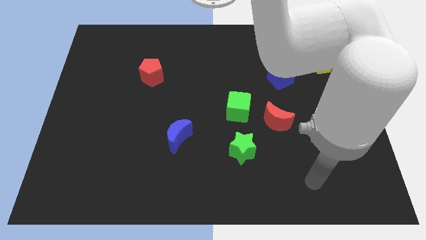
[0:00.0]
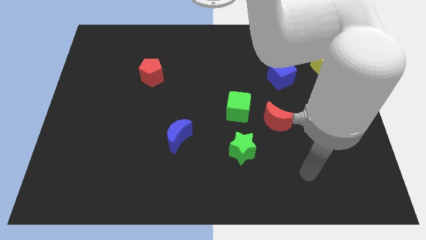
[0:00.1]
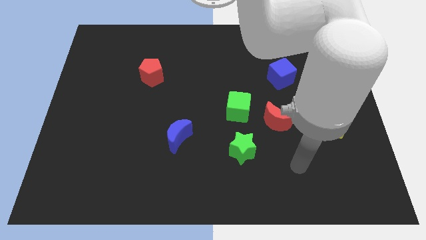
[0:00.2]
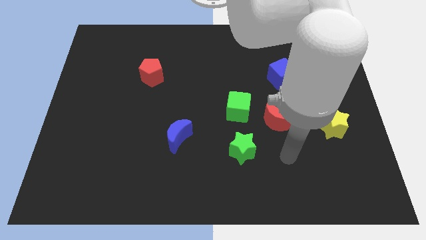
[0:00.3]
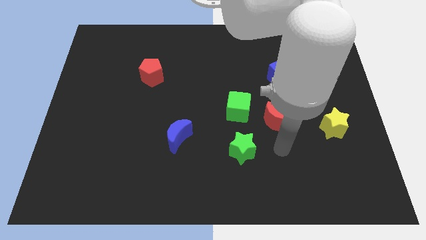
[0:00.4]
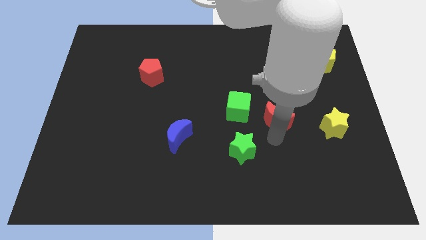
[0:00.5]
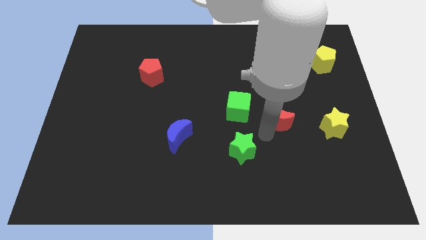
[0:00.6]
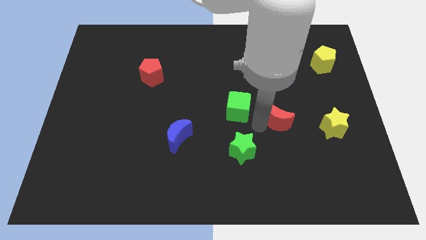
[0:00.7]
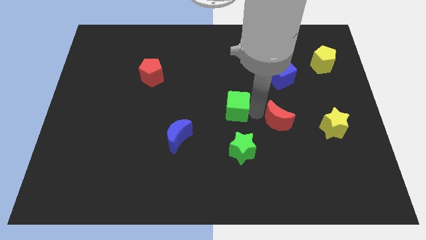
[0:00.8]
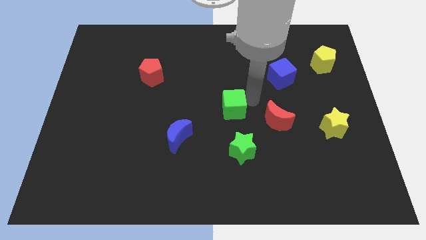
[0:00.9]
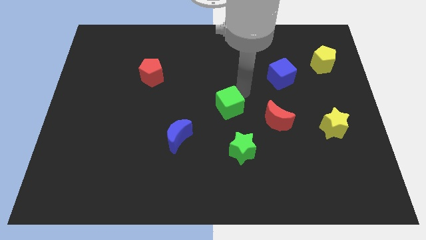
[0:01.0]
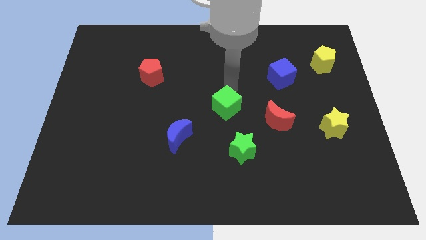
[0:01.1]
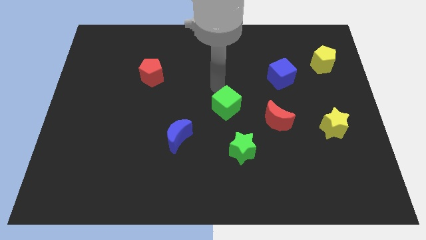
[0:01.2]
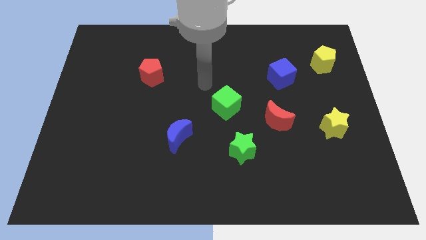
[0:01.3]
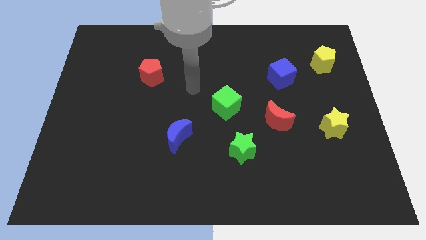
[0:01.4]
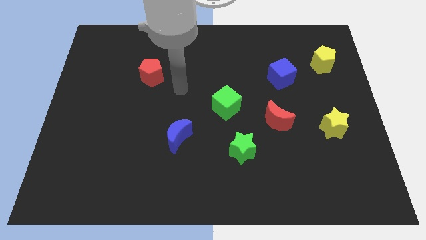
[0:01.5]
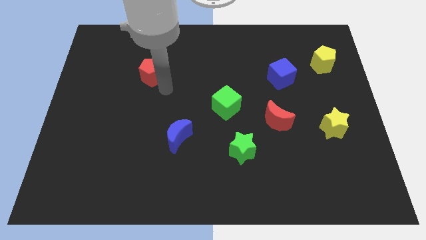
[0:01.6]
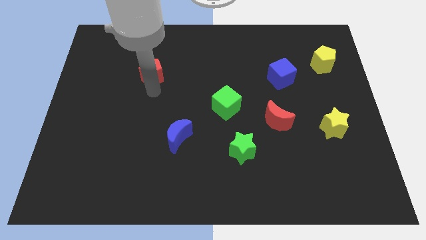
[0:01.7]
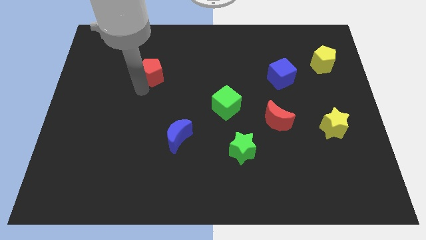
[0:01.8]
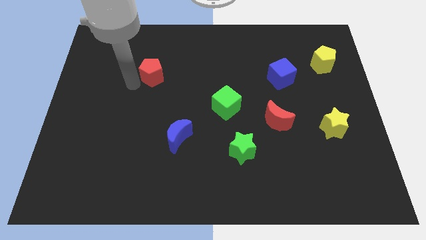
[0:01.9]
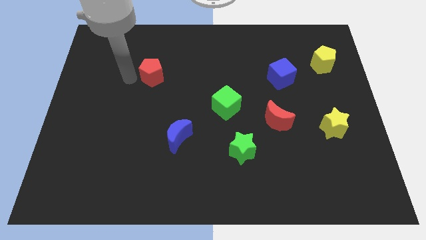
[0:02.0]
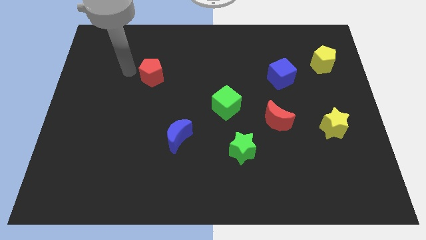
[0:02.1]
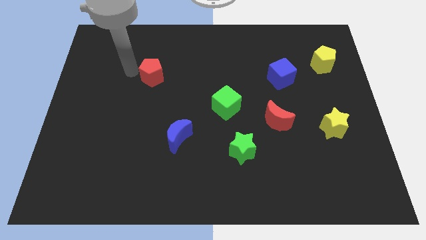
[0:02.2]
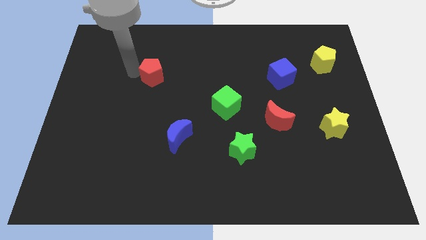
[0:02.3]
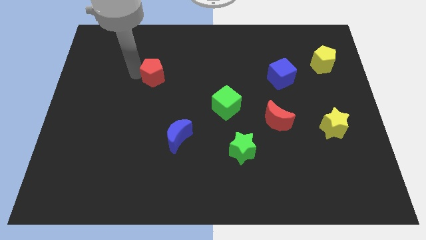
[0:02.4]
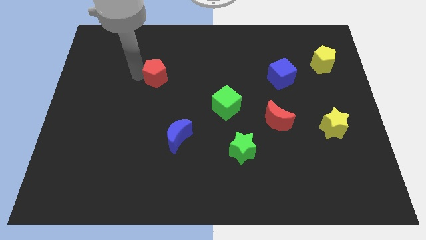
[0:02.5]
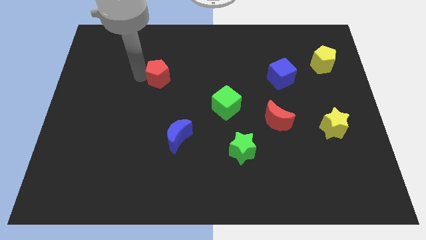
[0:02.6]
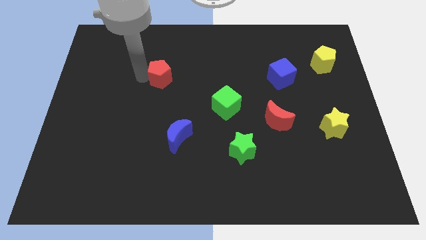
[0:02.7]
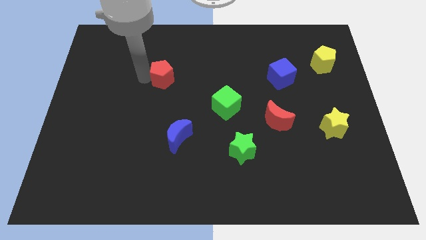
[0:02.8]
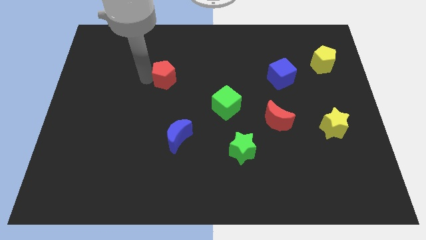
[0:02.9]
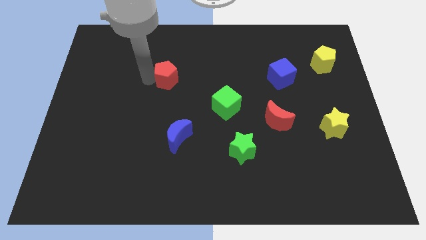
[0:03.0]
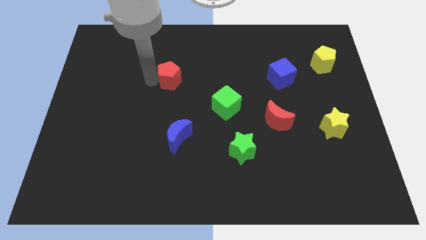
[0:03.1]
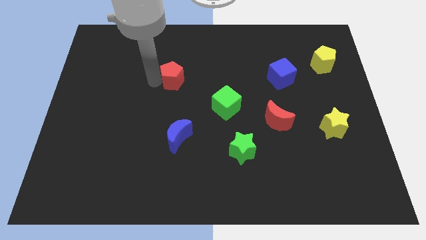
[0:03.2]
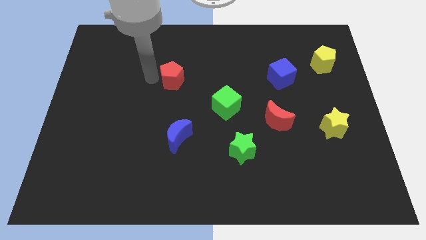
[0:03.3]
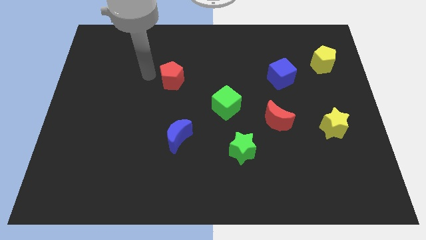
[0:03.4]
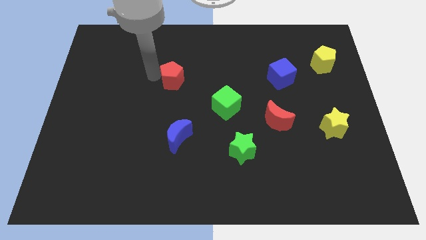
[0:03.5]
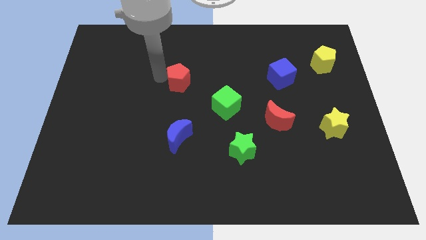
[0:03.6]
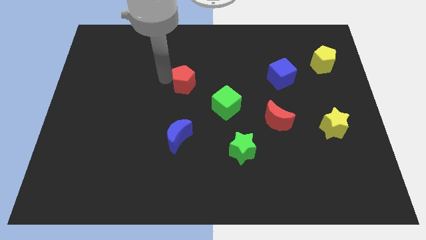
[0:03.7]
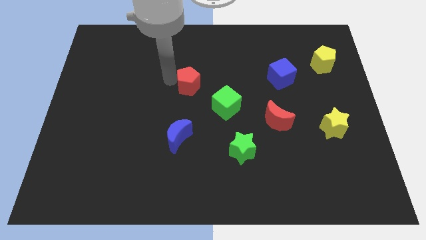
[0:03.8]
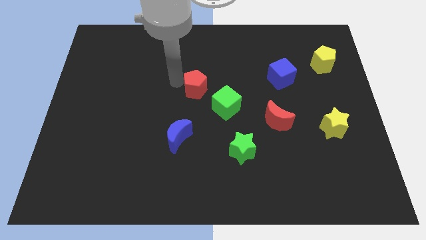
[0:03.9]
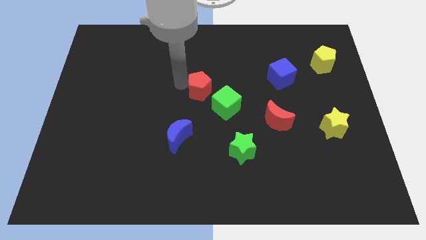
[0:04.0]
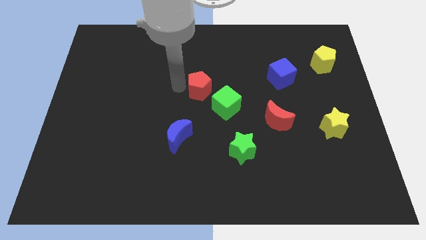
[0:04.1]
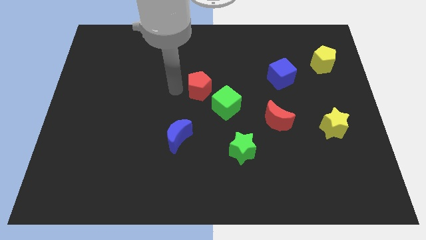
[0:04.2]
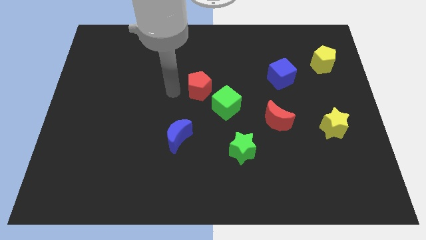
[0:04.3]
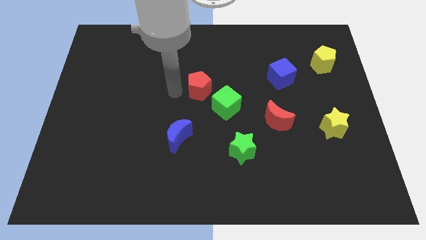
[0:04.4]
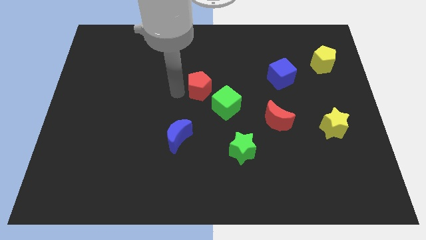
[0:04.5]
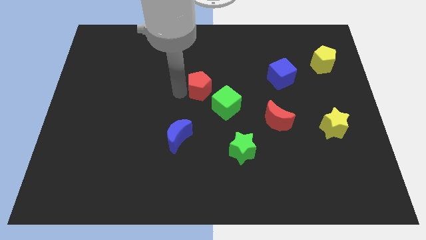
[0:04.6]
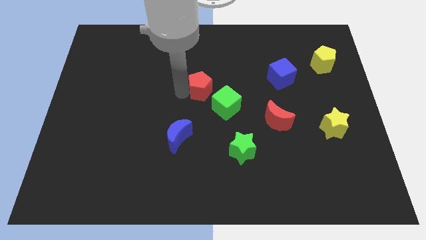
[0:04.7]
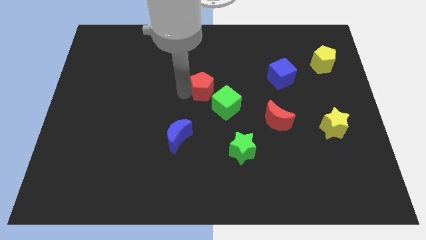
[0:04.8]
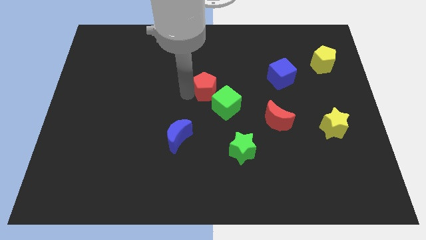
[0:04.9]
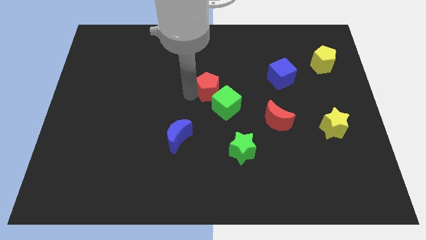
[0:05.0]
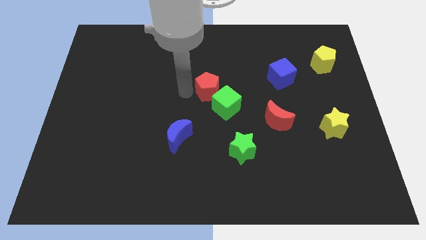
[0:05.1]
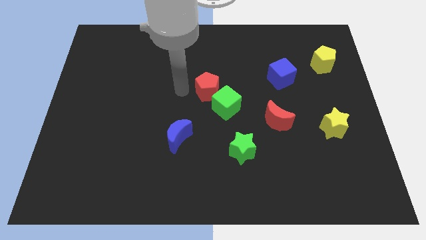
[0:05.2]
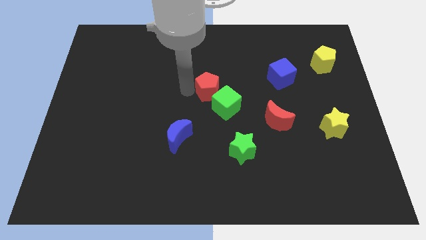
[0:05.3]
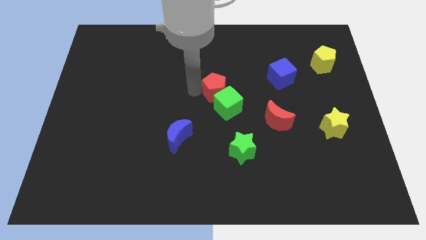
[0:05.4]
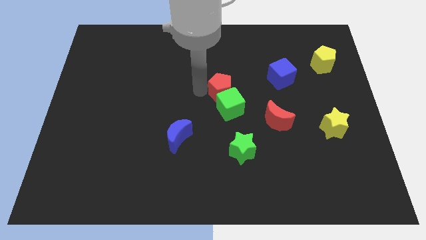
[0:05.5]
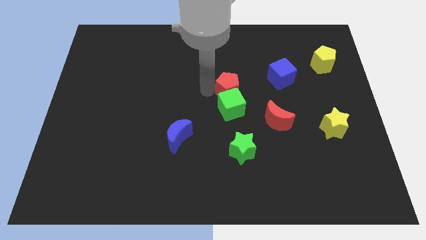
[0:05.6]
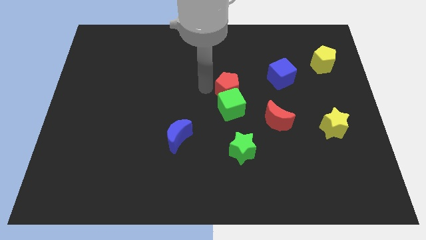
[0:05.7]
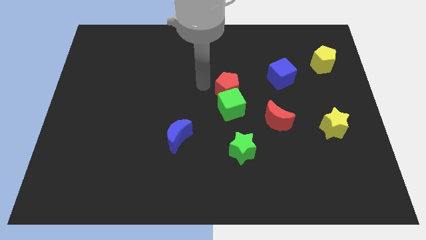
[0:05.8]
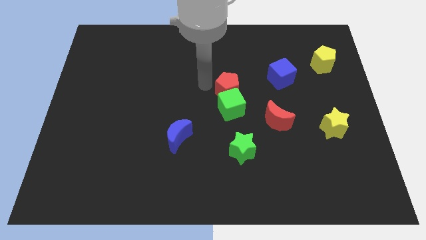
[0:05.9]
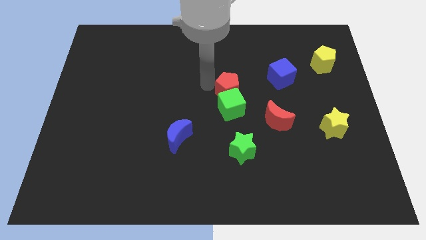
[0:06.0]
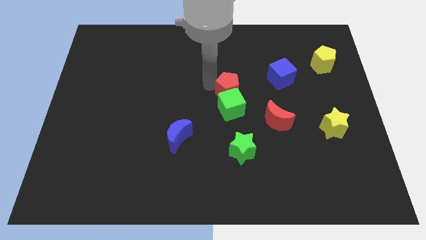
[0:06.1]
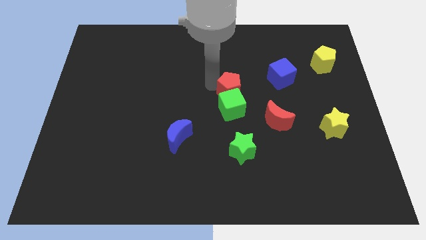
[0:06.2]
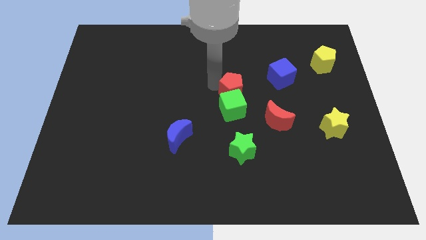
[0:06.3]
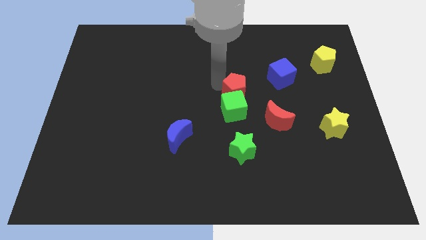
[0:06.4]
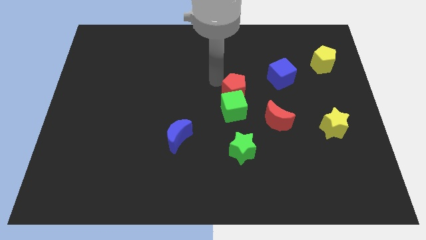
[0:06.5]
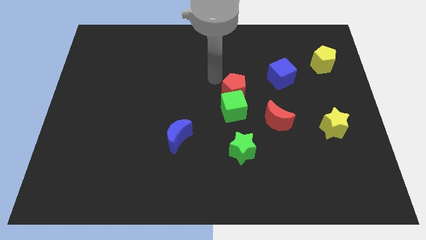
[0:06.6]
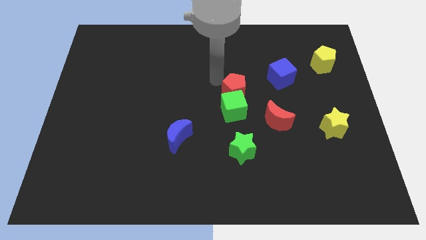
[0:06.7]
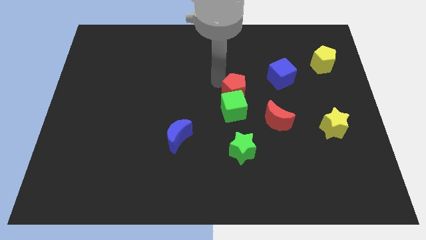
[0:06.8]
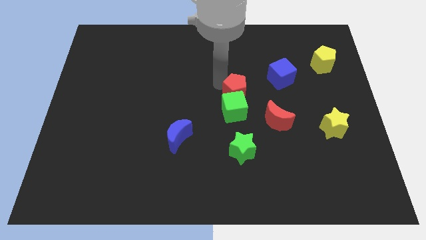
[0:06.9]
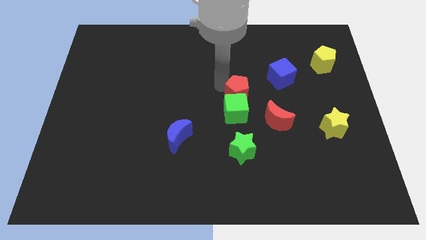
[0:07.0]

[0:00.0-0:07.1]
put the red pentagon above the green star
